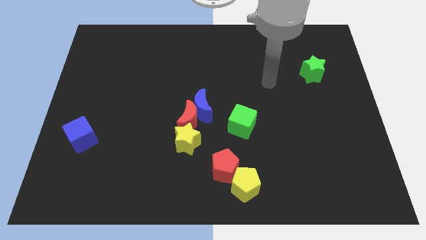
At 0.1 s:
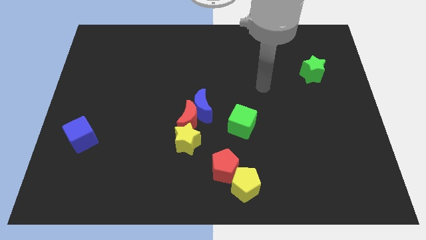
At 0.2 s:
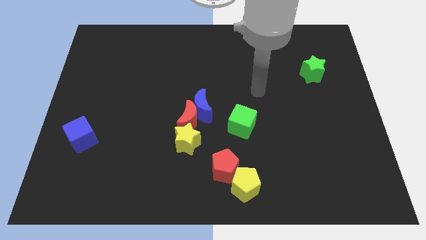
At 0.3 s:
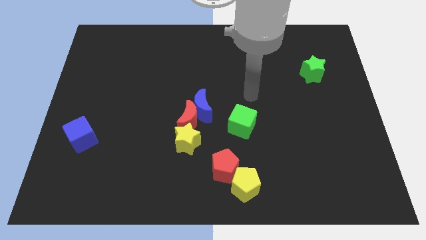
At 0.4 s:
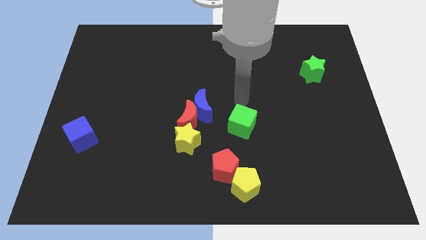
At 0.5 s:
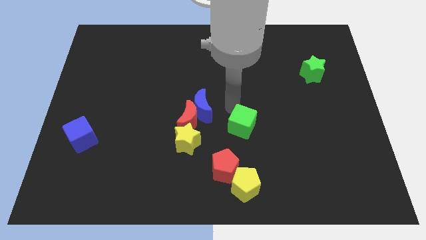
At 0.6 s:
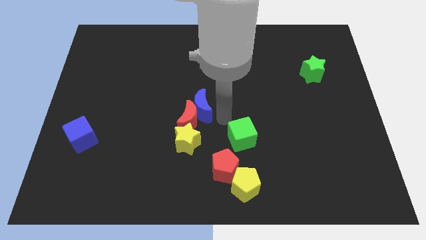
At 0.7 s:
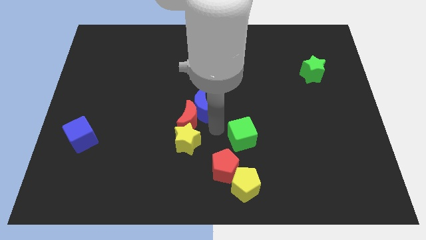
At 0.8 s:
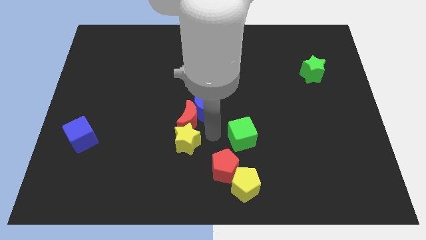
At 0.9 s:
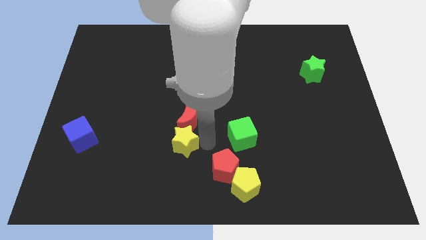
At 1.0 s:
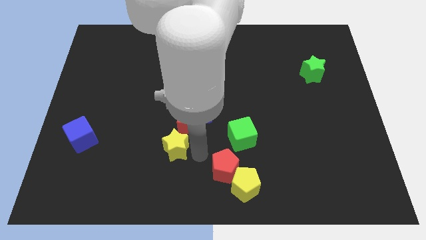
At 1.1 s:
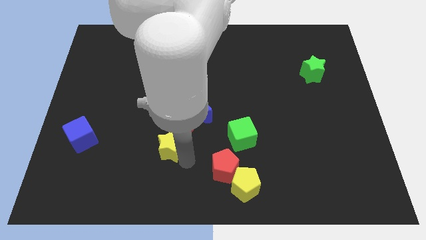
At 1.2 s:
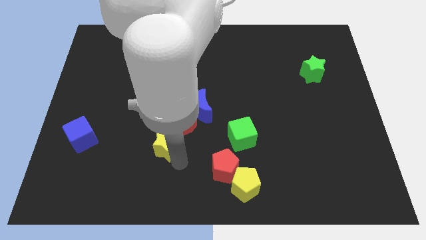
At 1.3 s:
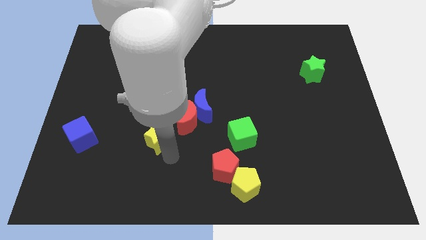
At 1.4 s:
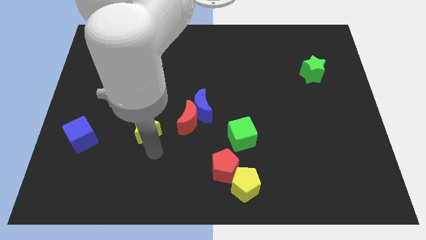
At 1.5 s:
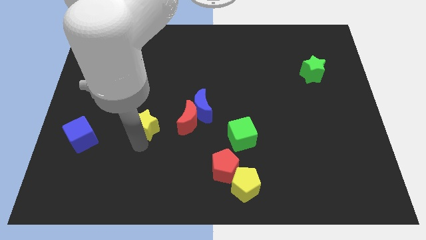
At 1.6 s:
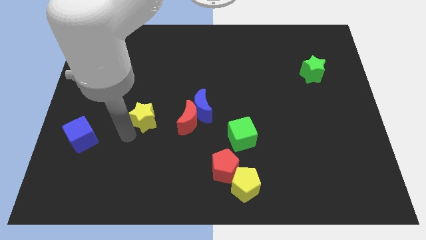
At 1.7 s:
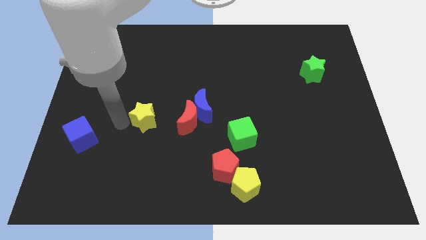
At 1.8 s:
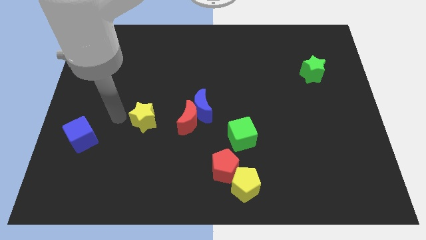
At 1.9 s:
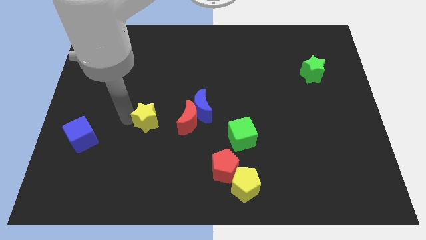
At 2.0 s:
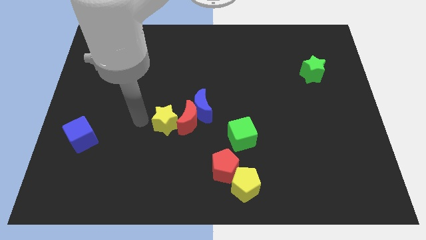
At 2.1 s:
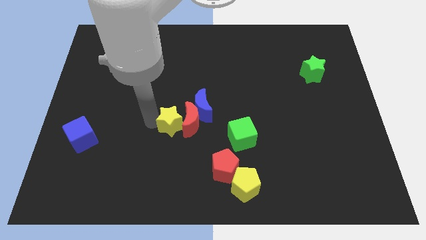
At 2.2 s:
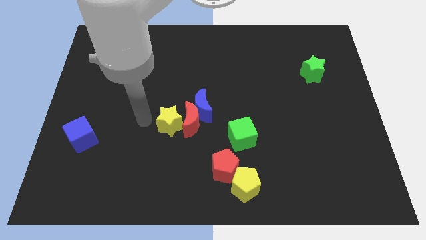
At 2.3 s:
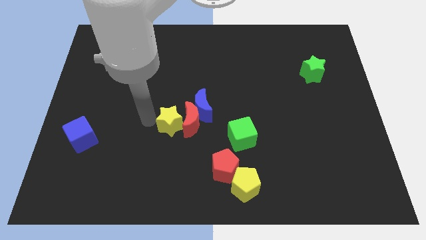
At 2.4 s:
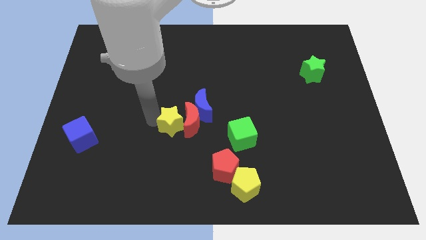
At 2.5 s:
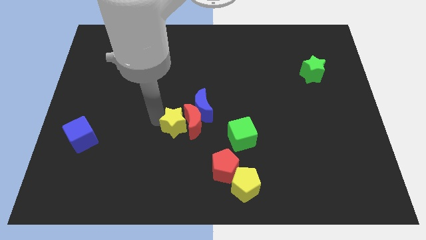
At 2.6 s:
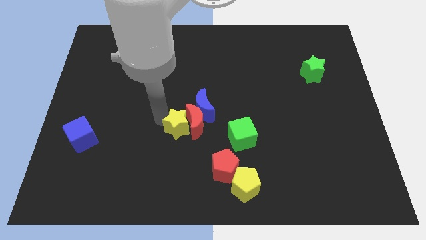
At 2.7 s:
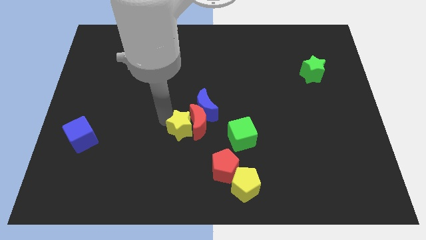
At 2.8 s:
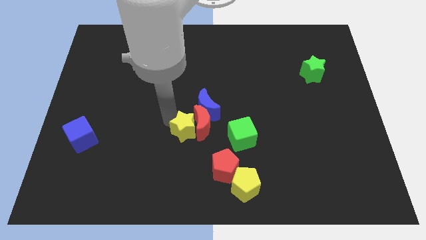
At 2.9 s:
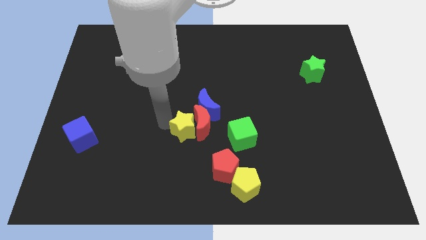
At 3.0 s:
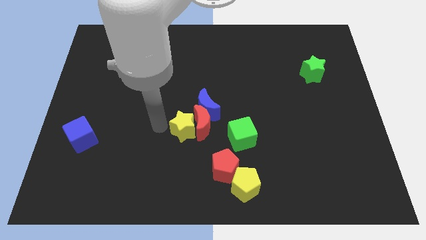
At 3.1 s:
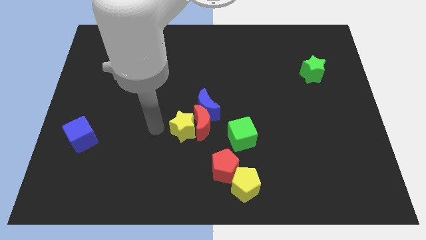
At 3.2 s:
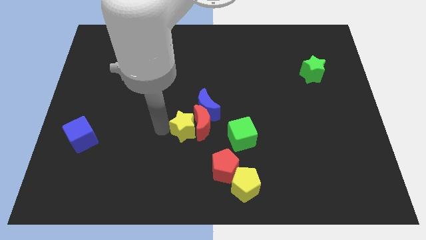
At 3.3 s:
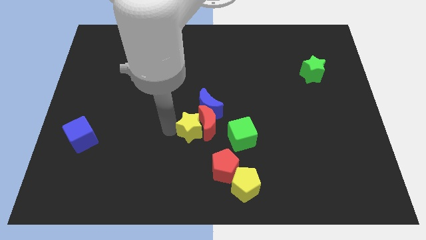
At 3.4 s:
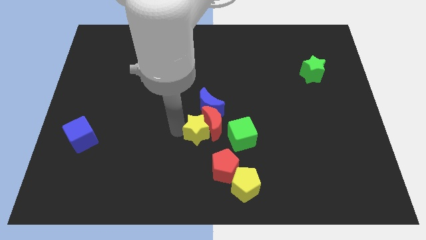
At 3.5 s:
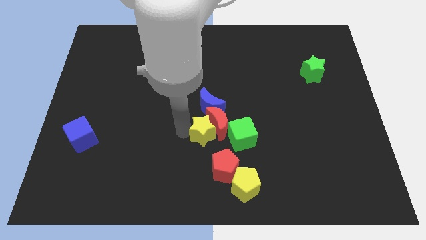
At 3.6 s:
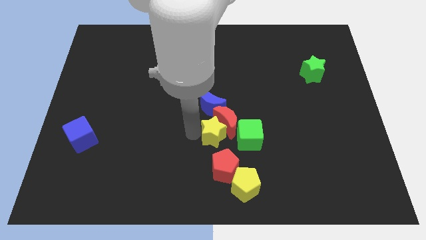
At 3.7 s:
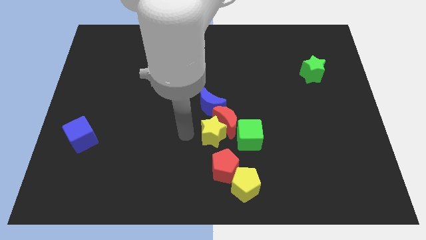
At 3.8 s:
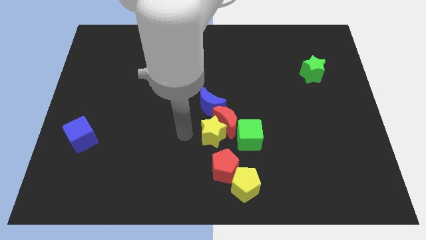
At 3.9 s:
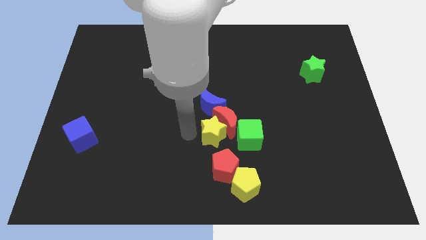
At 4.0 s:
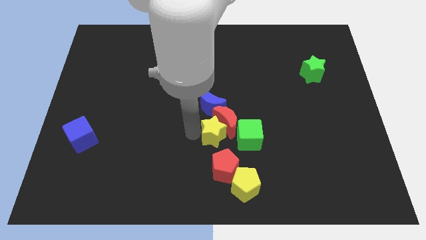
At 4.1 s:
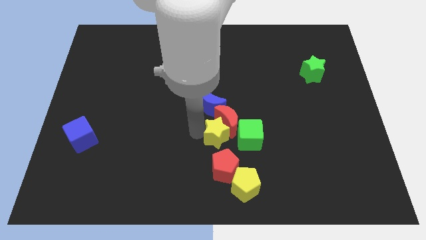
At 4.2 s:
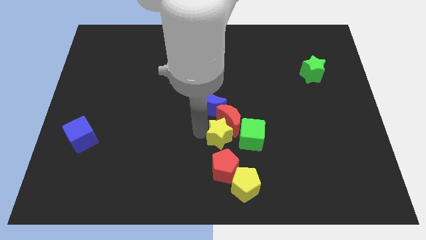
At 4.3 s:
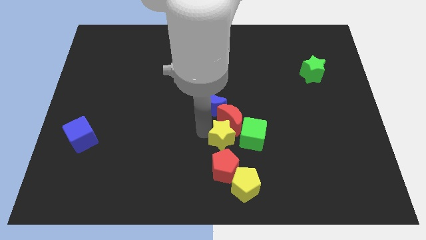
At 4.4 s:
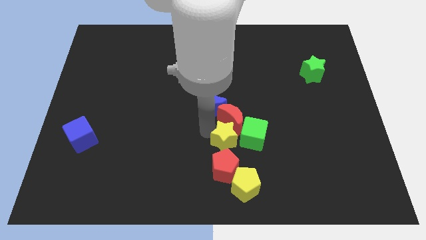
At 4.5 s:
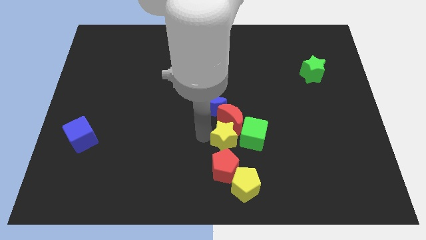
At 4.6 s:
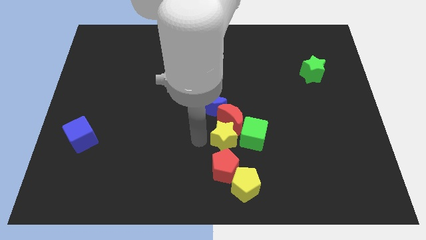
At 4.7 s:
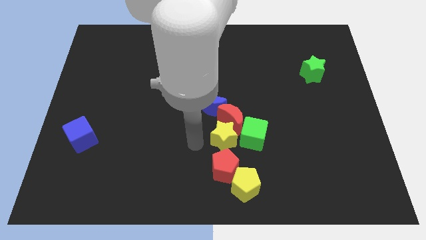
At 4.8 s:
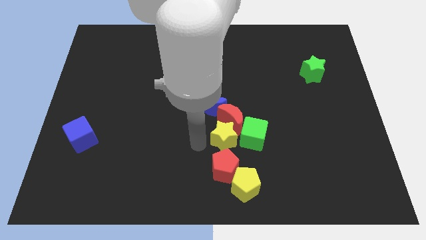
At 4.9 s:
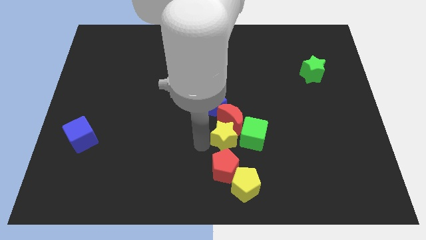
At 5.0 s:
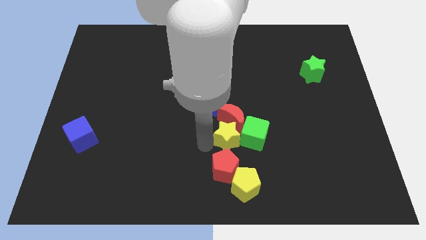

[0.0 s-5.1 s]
slide the yellow star next to the green cube

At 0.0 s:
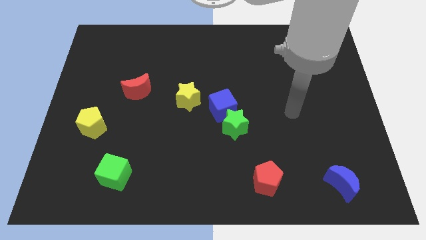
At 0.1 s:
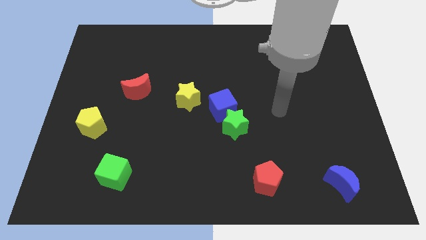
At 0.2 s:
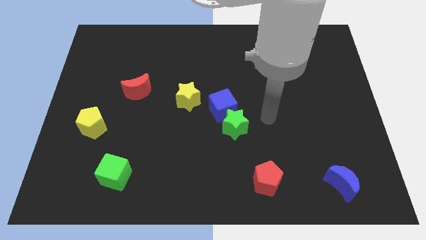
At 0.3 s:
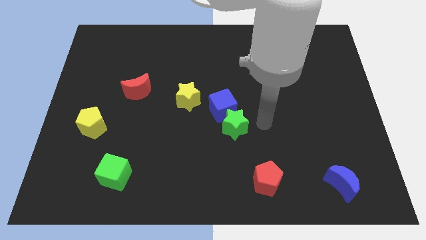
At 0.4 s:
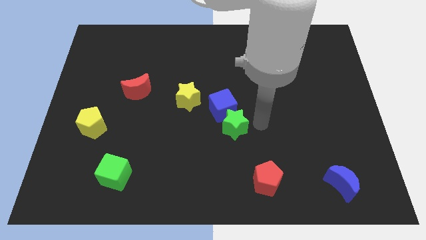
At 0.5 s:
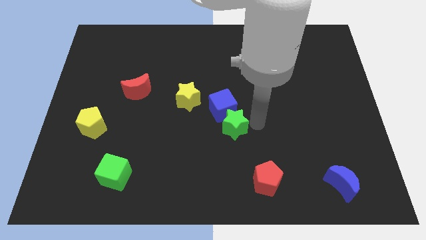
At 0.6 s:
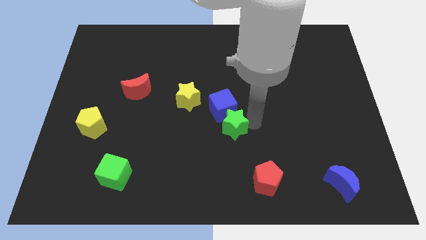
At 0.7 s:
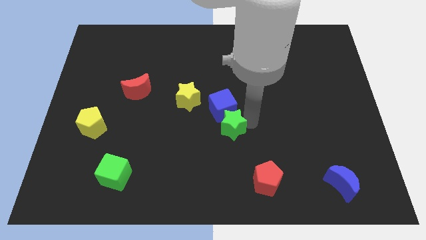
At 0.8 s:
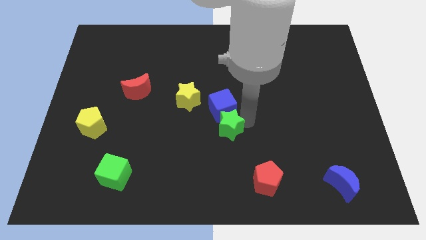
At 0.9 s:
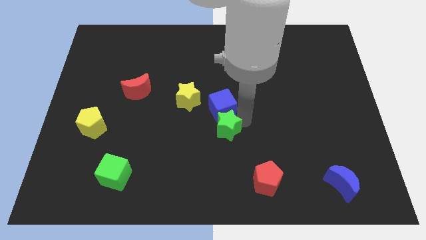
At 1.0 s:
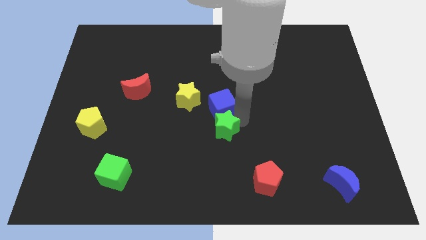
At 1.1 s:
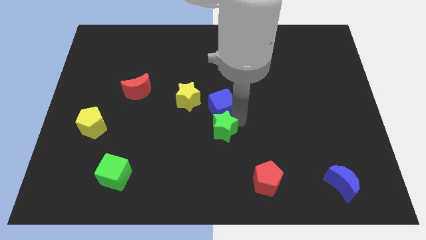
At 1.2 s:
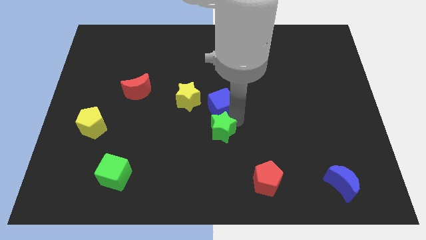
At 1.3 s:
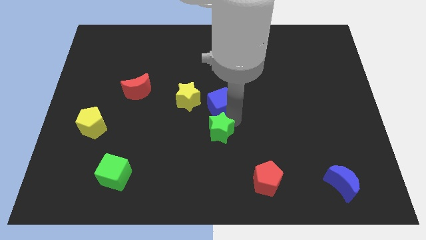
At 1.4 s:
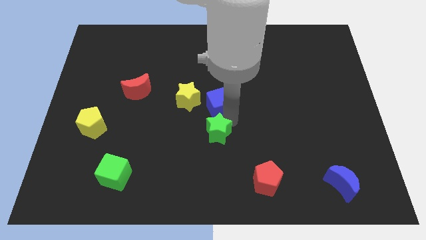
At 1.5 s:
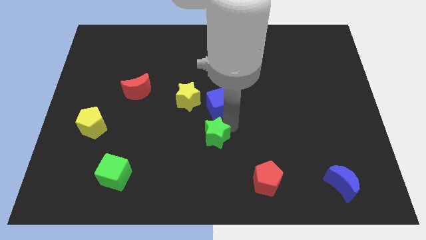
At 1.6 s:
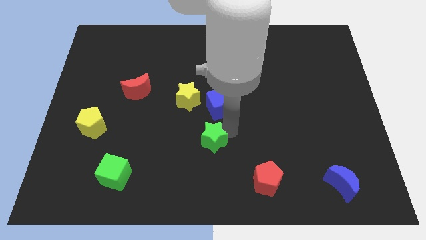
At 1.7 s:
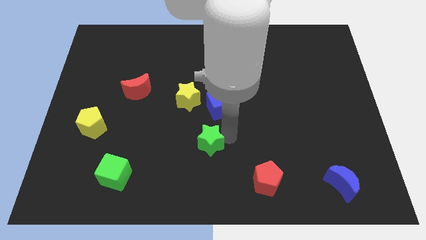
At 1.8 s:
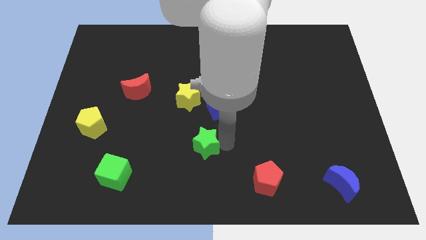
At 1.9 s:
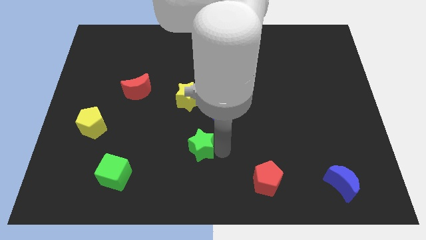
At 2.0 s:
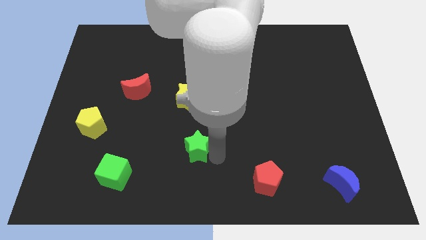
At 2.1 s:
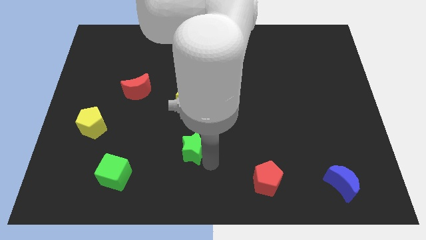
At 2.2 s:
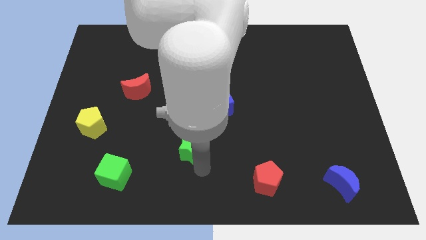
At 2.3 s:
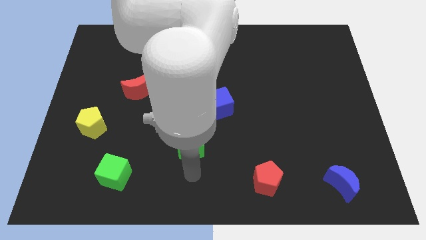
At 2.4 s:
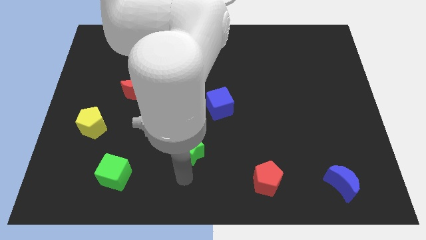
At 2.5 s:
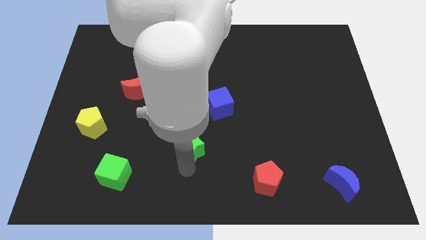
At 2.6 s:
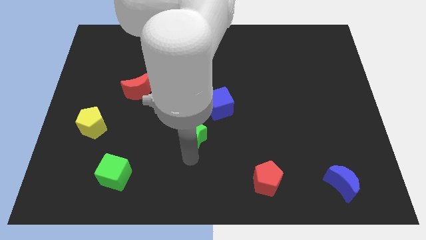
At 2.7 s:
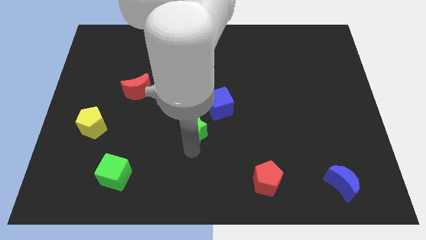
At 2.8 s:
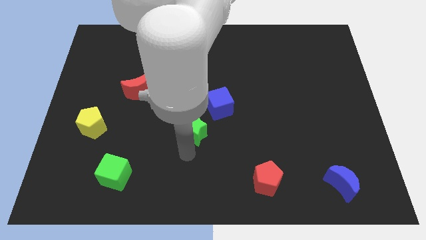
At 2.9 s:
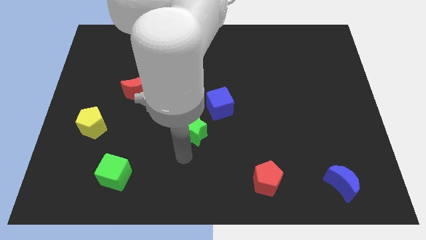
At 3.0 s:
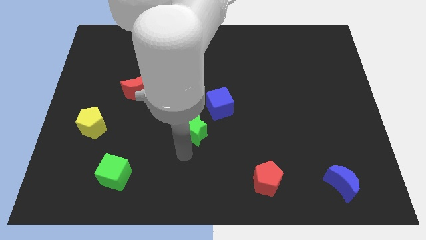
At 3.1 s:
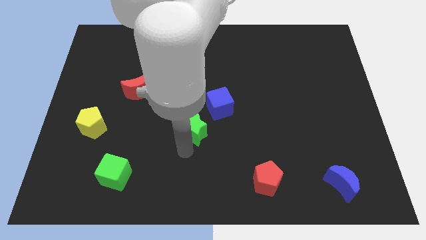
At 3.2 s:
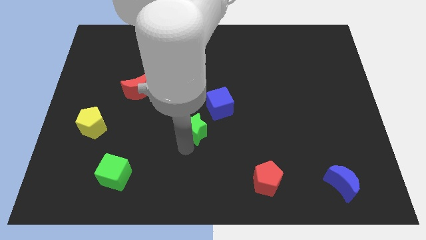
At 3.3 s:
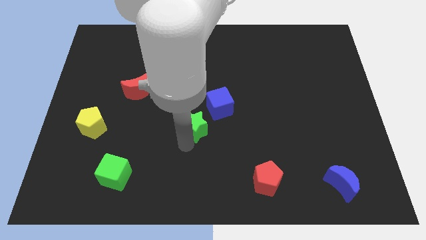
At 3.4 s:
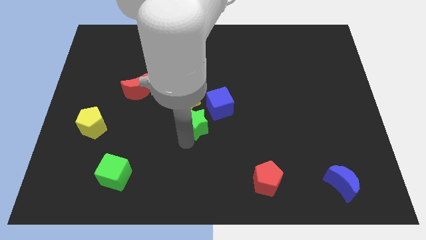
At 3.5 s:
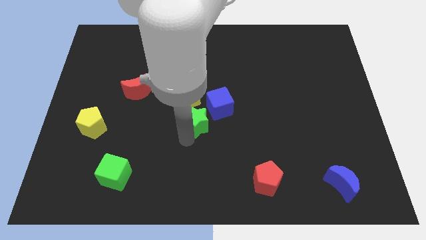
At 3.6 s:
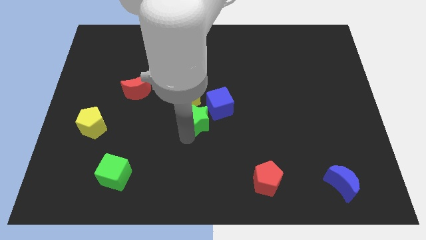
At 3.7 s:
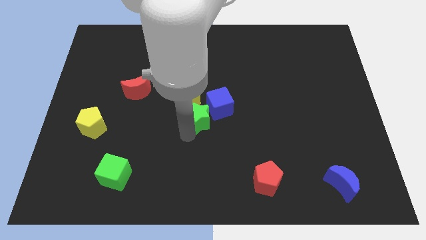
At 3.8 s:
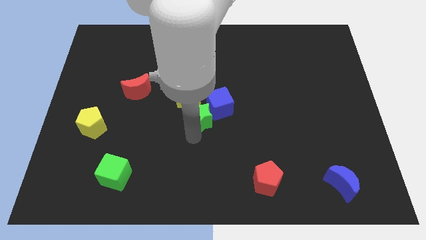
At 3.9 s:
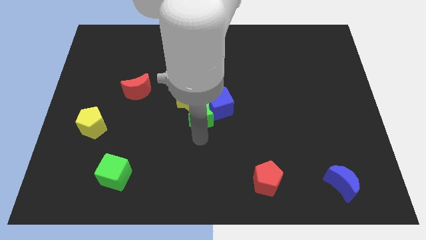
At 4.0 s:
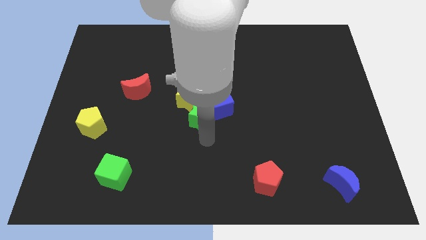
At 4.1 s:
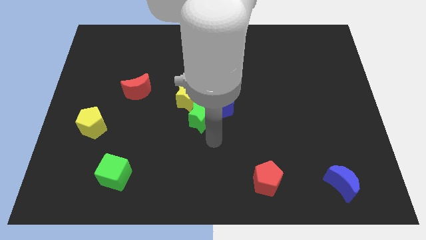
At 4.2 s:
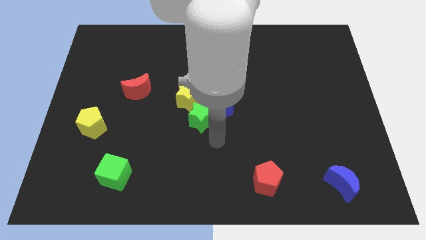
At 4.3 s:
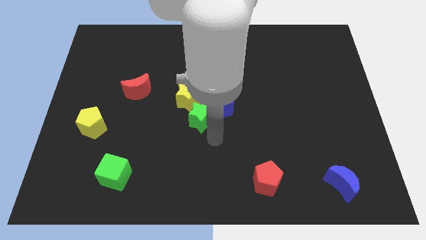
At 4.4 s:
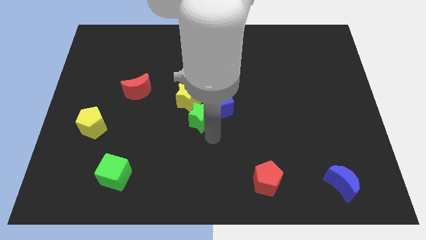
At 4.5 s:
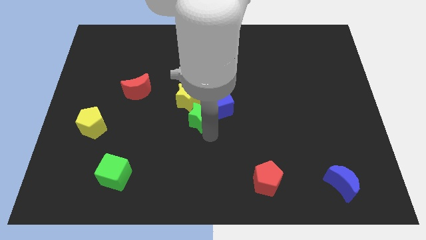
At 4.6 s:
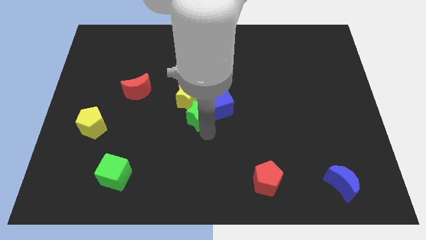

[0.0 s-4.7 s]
slide the green star next to the yellow star
